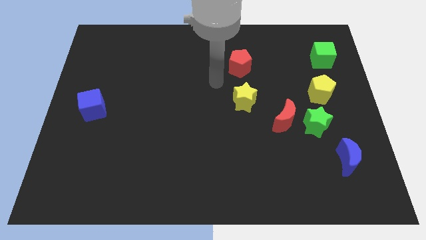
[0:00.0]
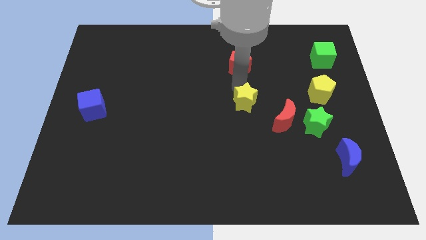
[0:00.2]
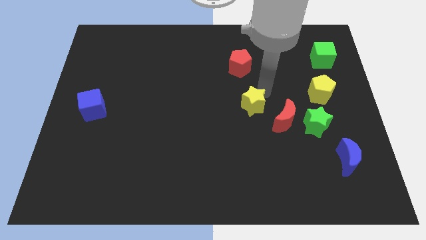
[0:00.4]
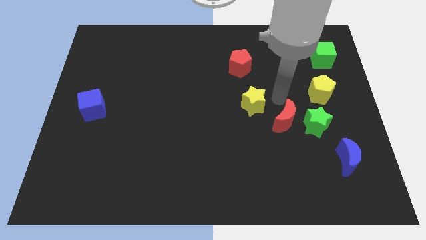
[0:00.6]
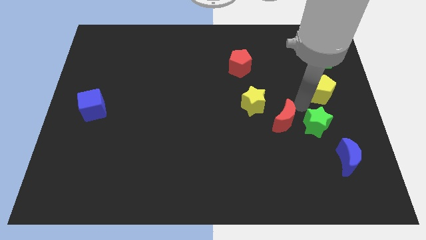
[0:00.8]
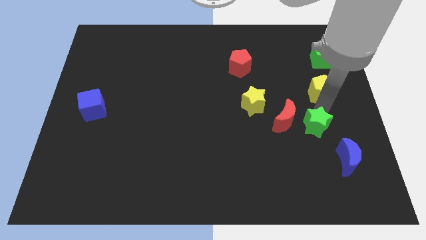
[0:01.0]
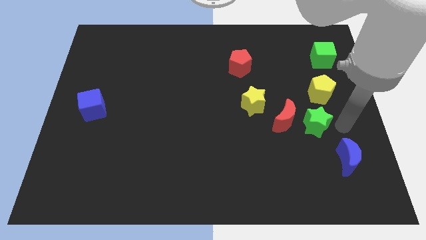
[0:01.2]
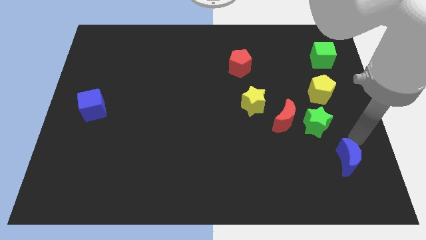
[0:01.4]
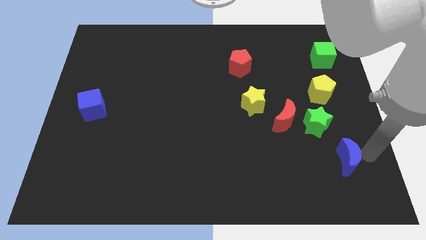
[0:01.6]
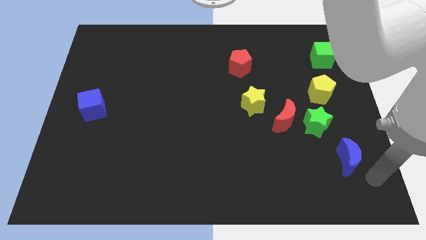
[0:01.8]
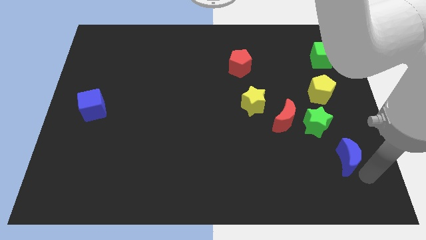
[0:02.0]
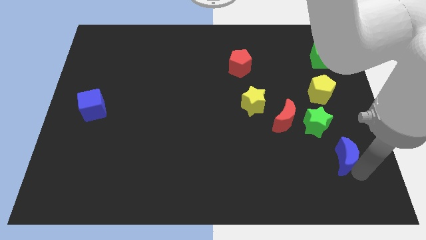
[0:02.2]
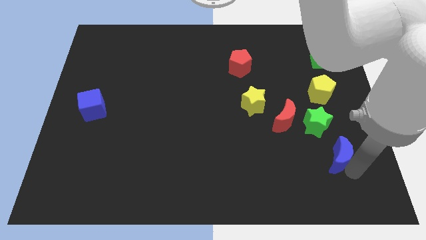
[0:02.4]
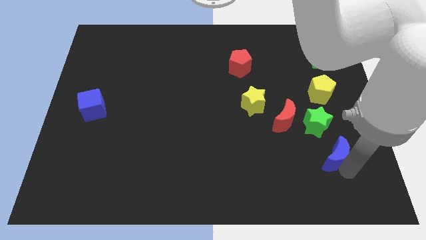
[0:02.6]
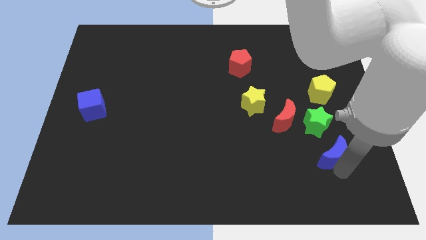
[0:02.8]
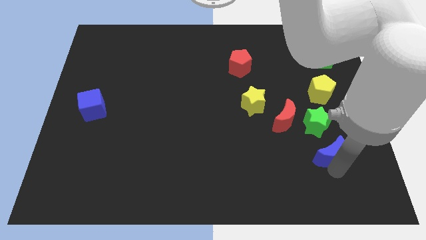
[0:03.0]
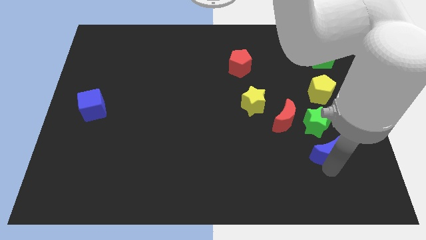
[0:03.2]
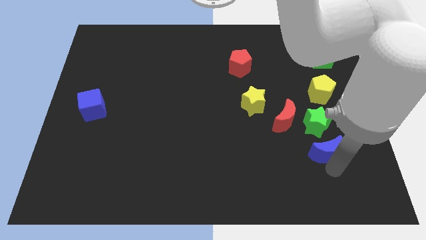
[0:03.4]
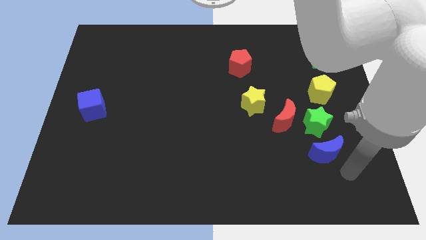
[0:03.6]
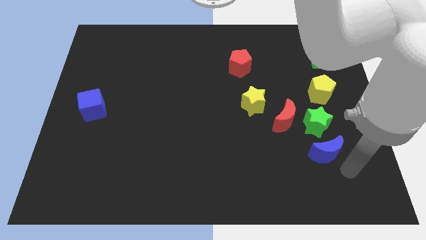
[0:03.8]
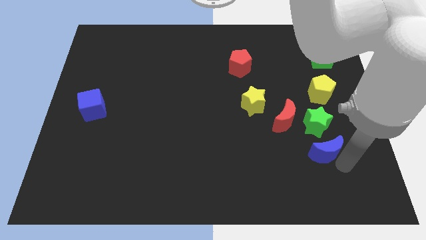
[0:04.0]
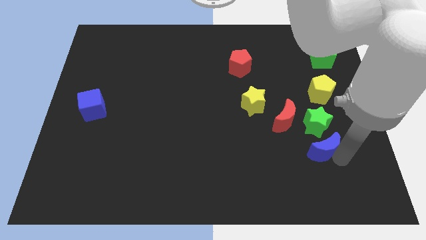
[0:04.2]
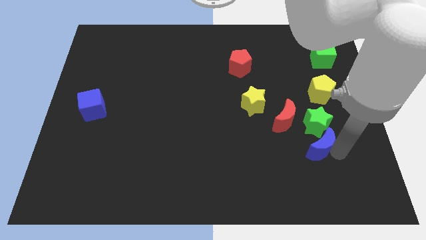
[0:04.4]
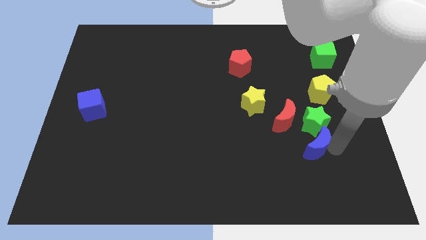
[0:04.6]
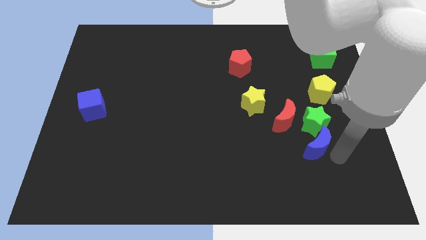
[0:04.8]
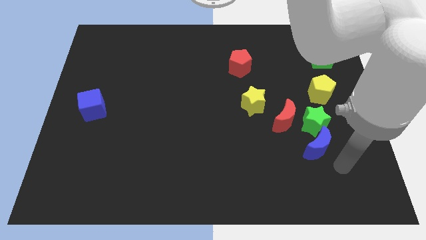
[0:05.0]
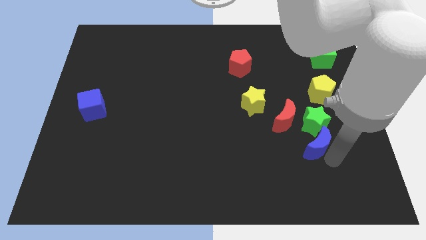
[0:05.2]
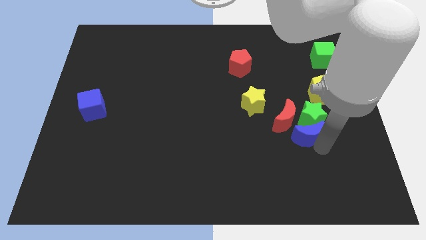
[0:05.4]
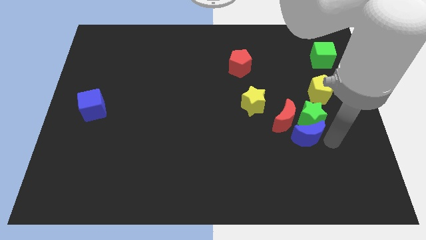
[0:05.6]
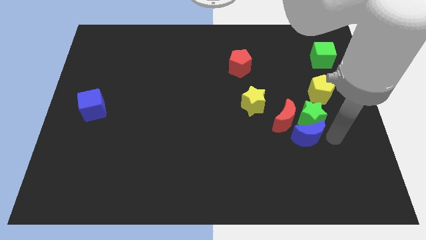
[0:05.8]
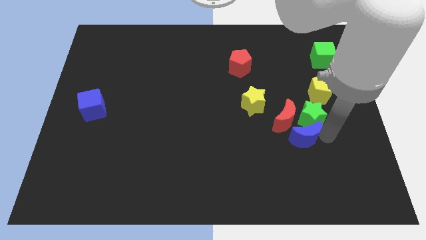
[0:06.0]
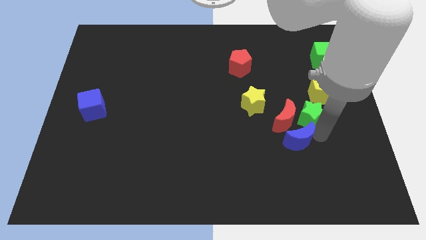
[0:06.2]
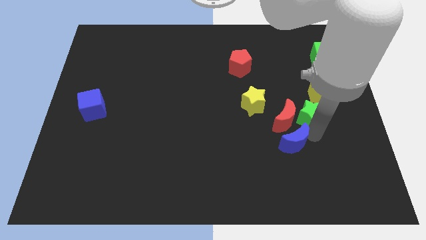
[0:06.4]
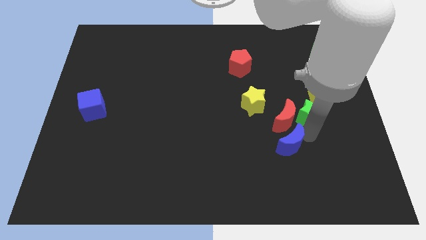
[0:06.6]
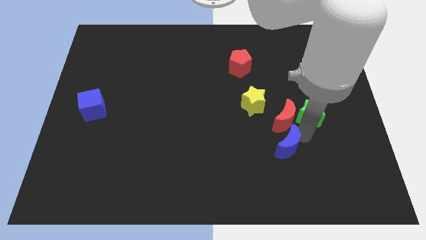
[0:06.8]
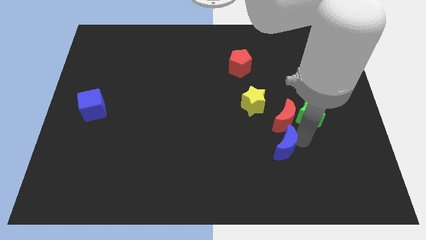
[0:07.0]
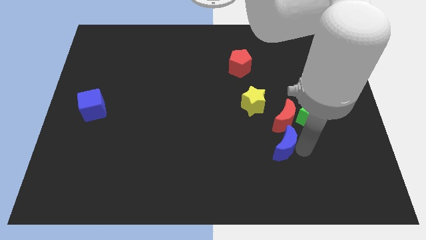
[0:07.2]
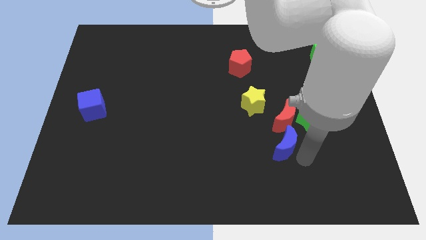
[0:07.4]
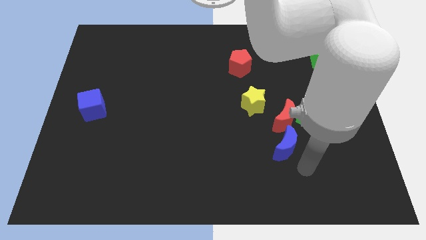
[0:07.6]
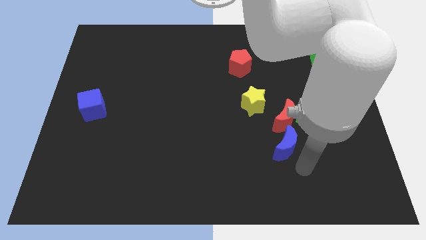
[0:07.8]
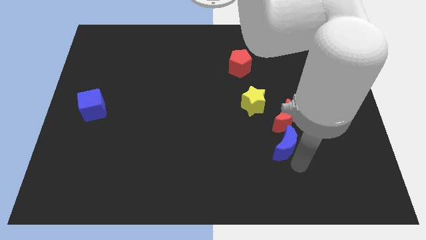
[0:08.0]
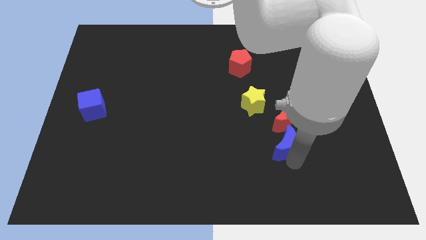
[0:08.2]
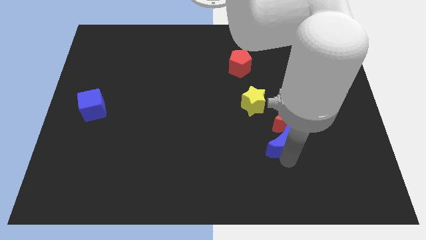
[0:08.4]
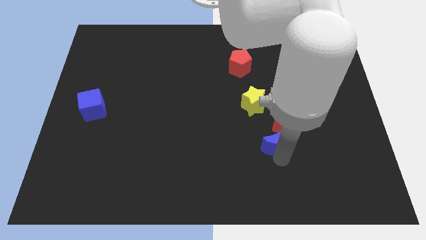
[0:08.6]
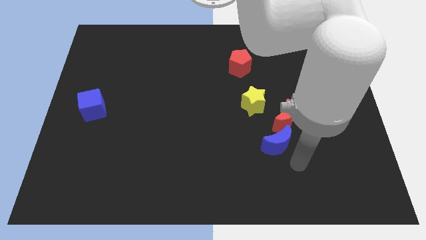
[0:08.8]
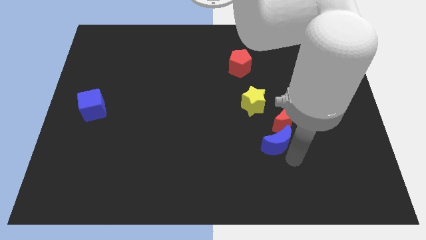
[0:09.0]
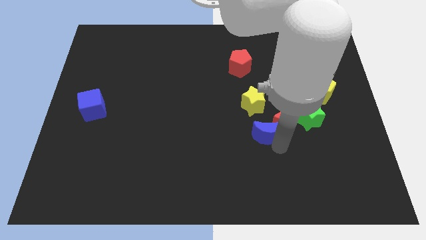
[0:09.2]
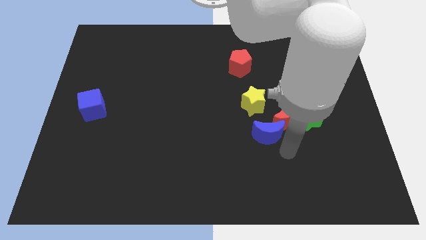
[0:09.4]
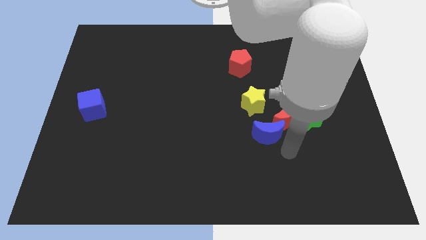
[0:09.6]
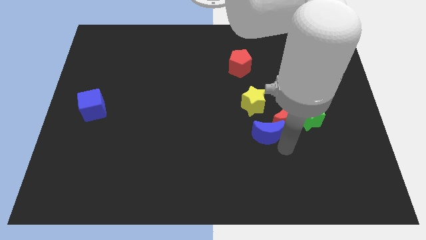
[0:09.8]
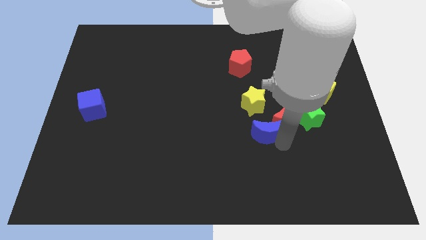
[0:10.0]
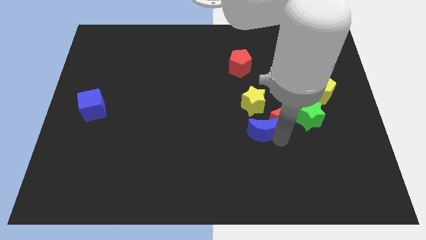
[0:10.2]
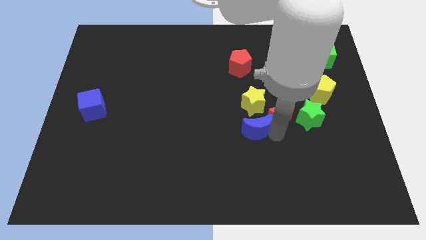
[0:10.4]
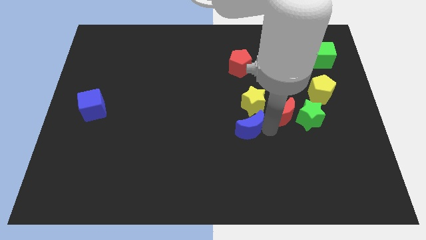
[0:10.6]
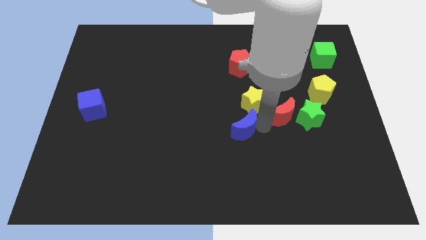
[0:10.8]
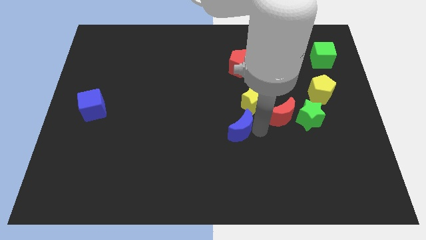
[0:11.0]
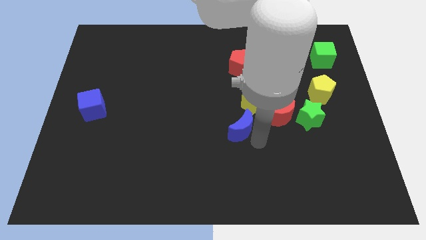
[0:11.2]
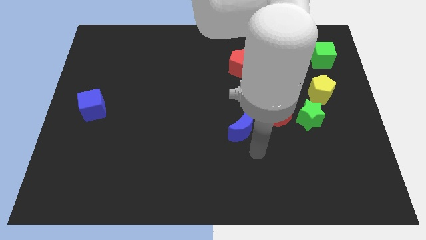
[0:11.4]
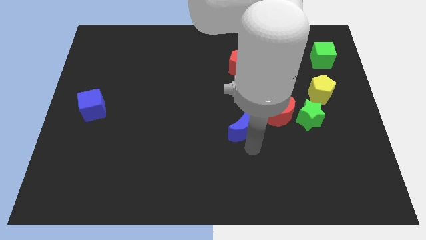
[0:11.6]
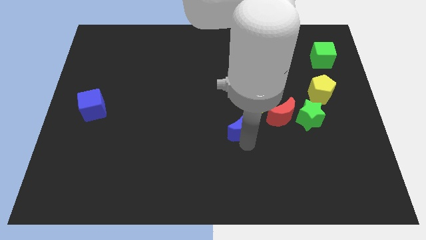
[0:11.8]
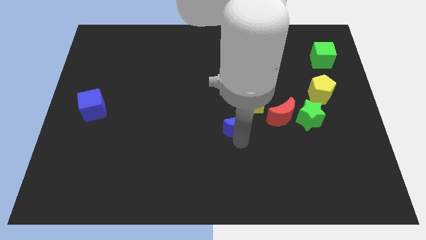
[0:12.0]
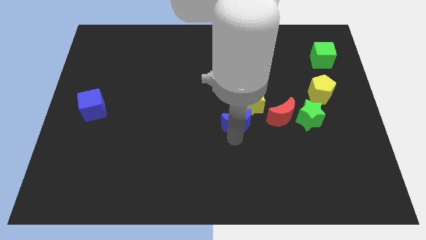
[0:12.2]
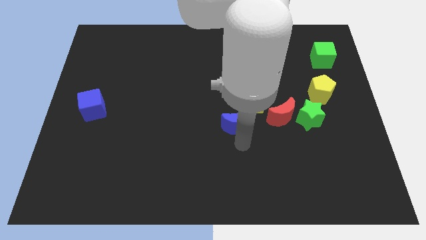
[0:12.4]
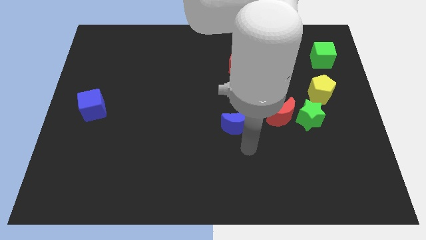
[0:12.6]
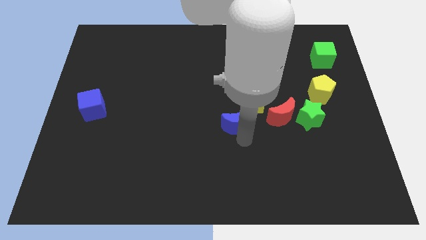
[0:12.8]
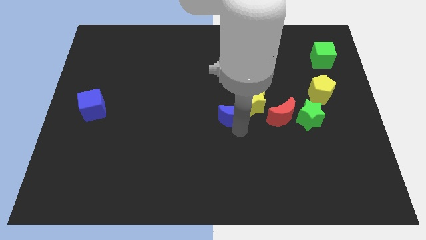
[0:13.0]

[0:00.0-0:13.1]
slide the blue moon up and to the left

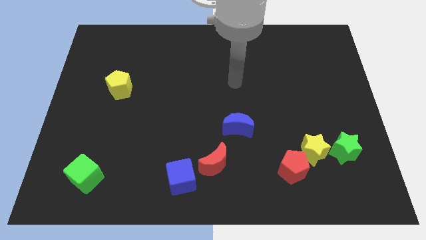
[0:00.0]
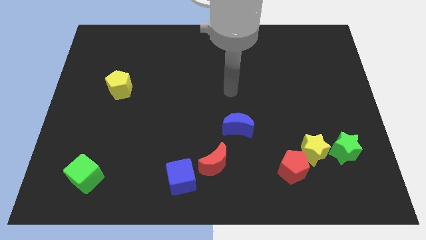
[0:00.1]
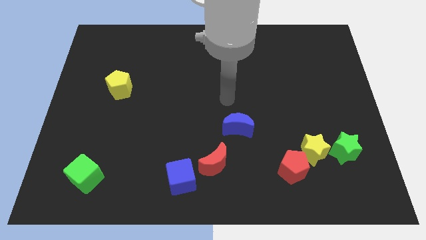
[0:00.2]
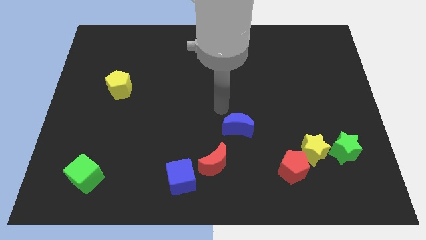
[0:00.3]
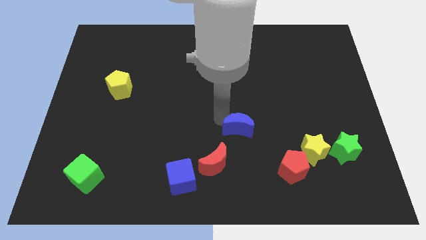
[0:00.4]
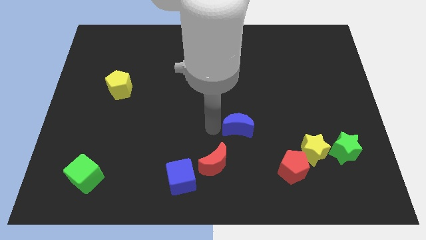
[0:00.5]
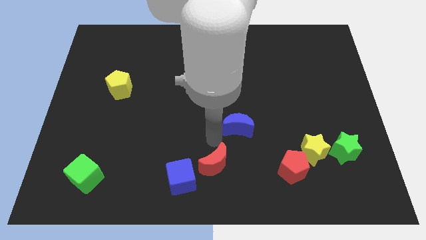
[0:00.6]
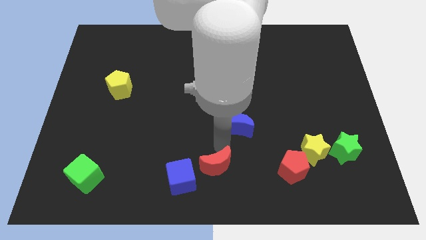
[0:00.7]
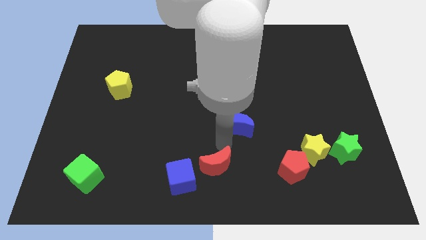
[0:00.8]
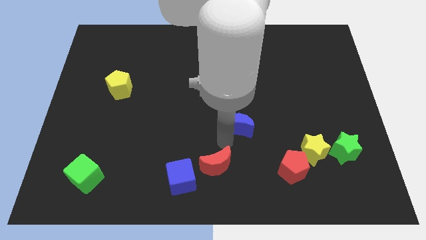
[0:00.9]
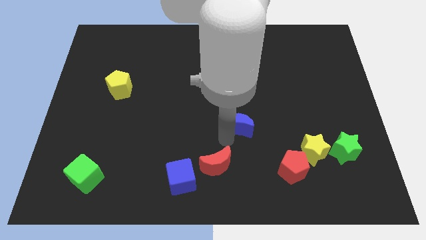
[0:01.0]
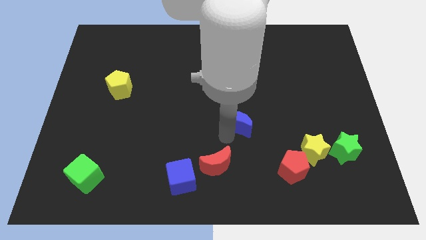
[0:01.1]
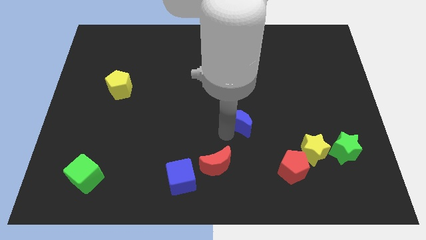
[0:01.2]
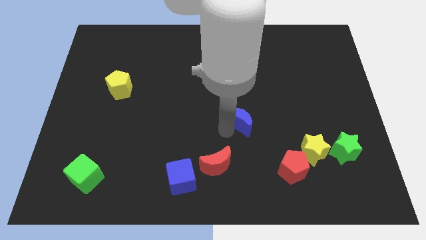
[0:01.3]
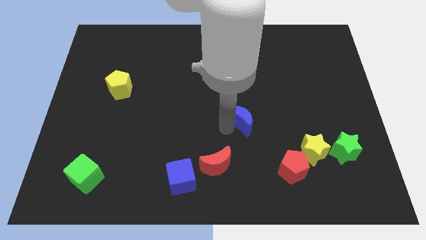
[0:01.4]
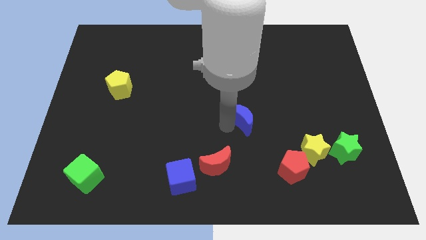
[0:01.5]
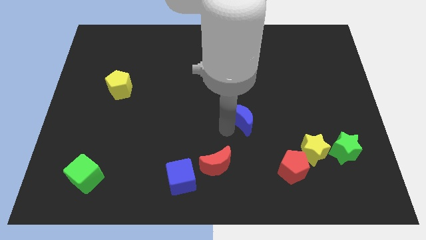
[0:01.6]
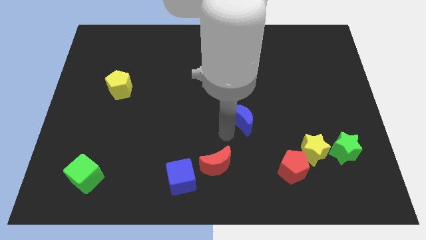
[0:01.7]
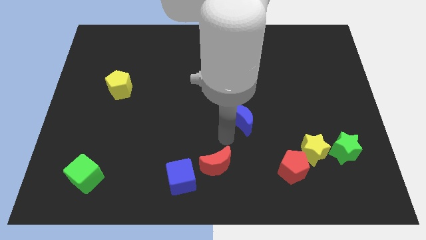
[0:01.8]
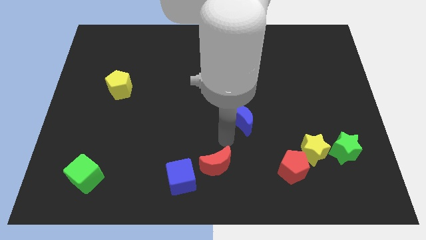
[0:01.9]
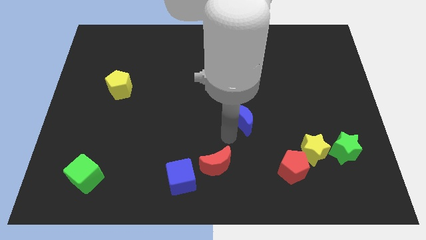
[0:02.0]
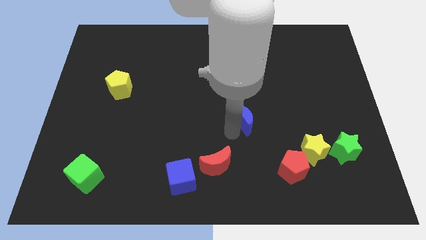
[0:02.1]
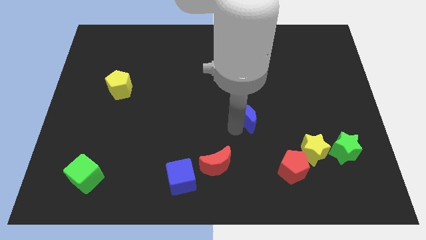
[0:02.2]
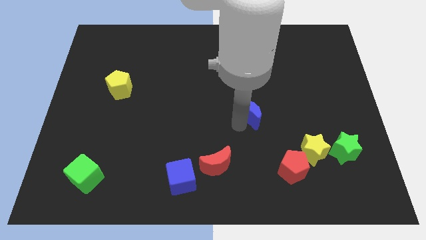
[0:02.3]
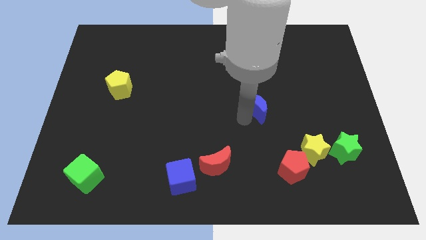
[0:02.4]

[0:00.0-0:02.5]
slightly push the blue moon up and right diagonally
